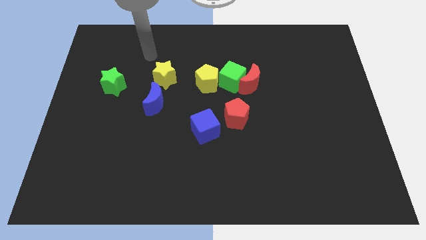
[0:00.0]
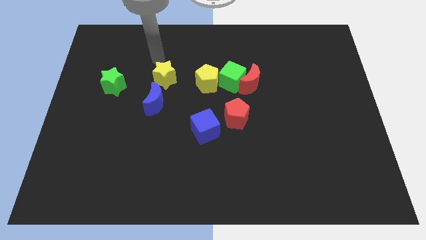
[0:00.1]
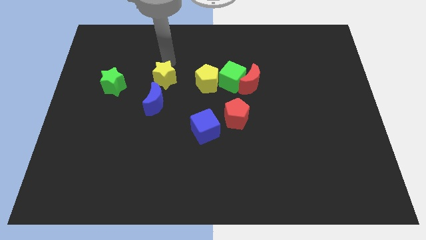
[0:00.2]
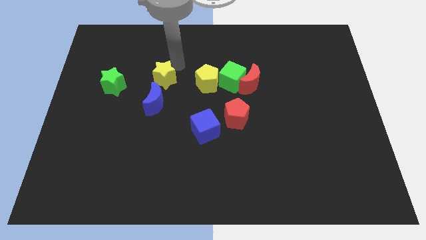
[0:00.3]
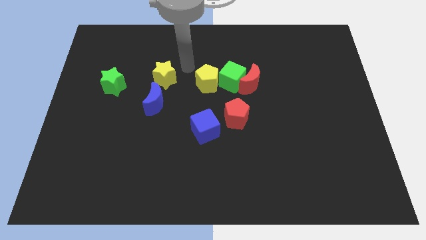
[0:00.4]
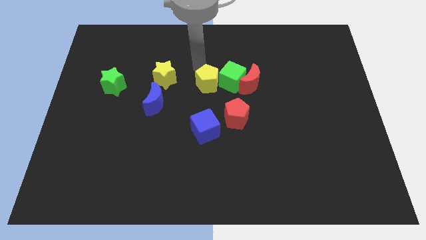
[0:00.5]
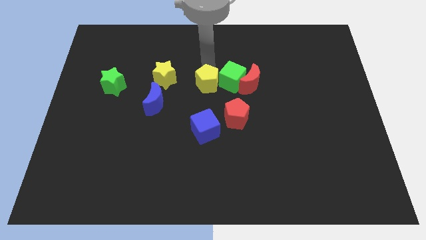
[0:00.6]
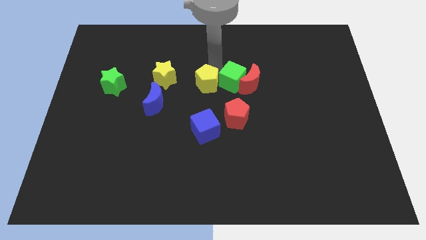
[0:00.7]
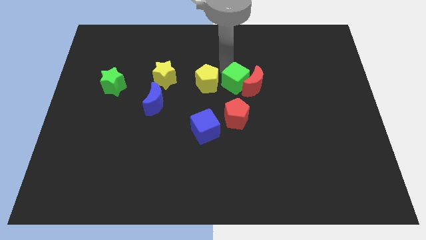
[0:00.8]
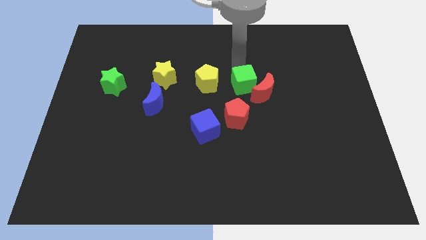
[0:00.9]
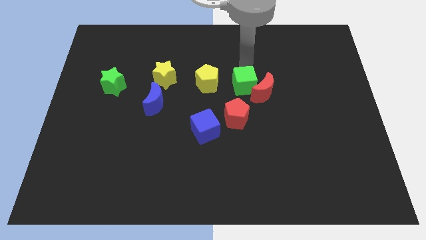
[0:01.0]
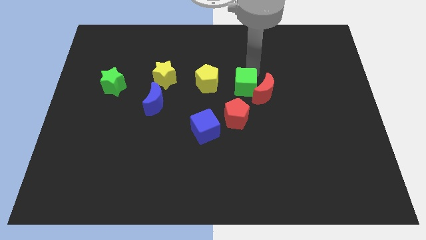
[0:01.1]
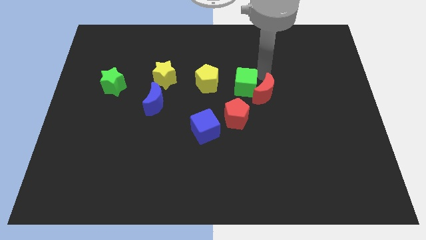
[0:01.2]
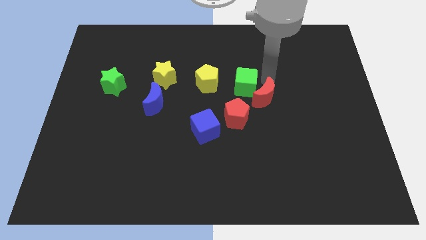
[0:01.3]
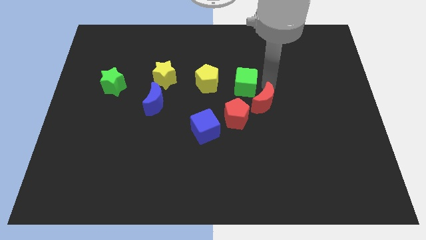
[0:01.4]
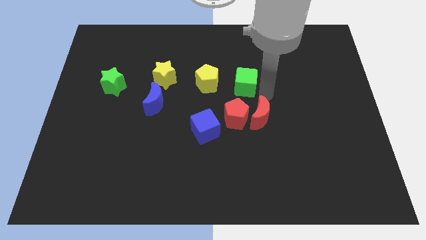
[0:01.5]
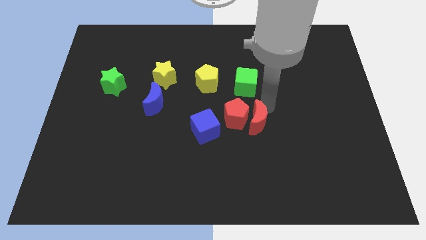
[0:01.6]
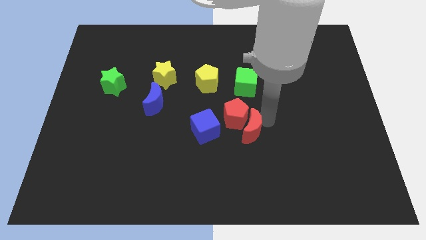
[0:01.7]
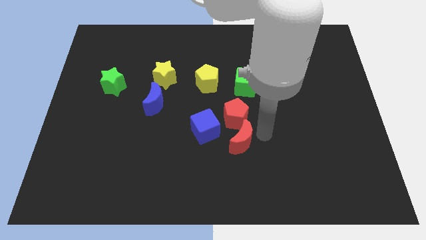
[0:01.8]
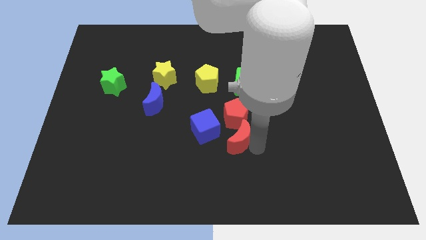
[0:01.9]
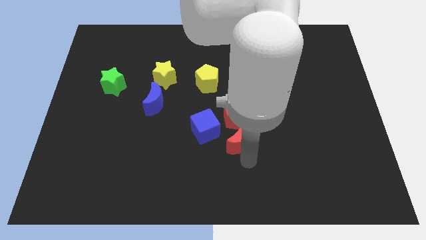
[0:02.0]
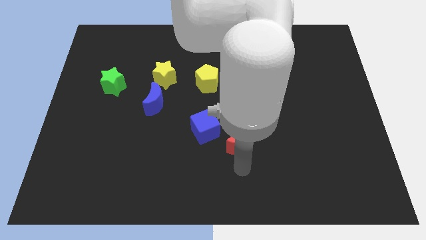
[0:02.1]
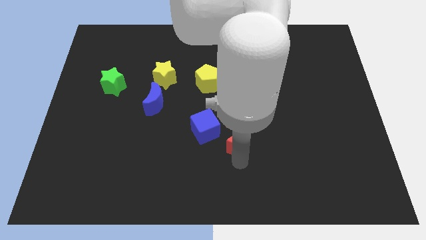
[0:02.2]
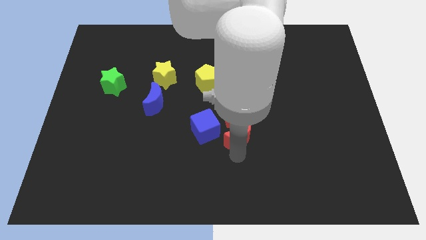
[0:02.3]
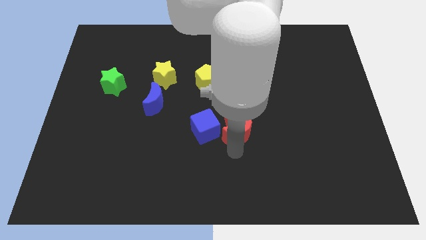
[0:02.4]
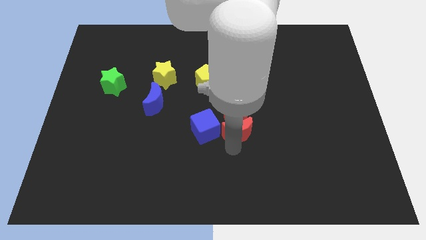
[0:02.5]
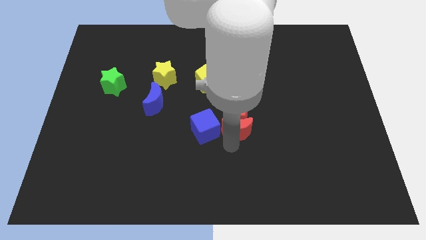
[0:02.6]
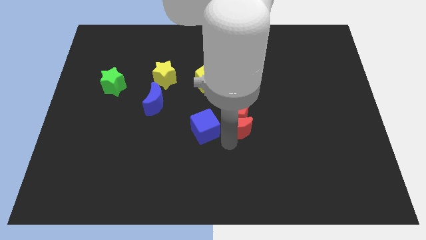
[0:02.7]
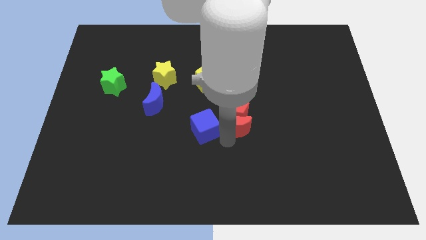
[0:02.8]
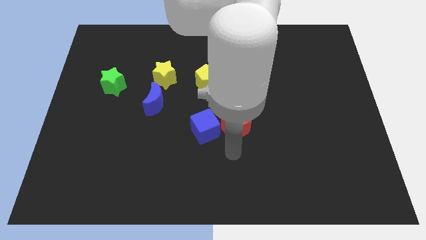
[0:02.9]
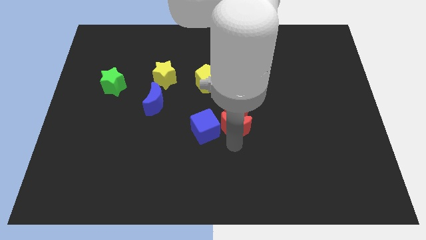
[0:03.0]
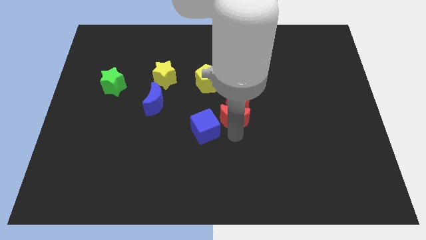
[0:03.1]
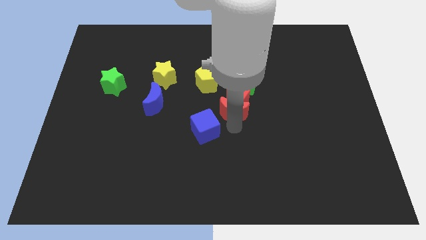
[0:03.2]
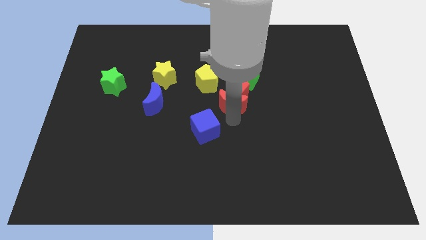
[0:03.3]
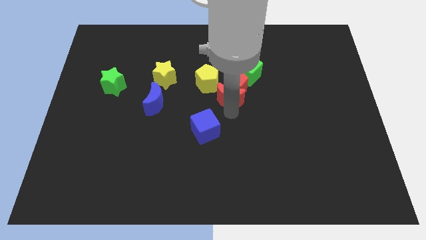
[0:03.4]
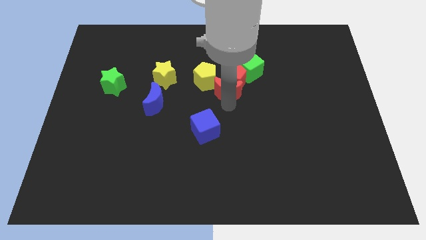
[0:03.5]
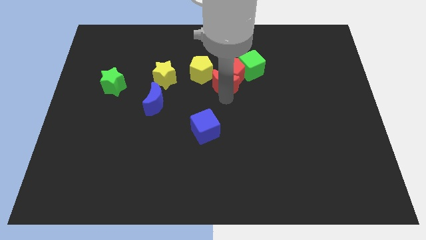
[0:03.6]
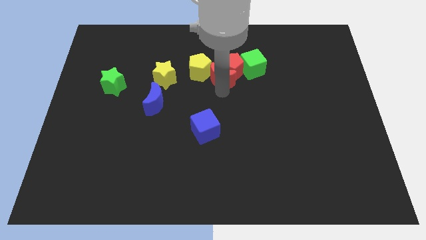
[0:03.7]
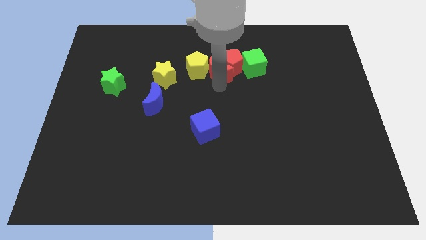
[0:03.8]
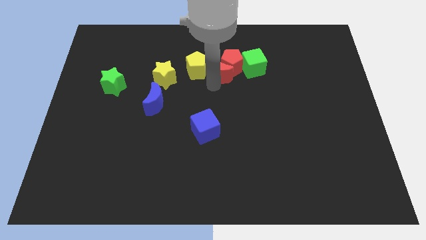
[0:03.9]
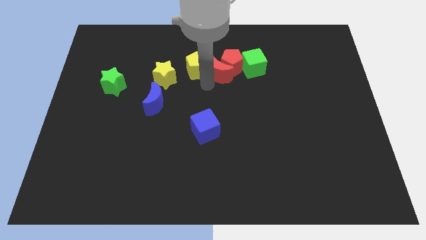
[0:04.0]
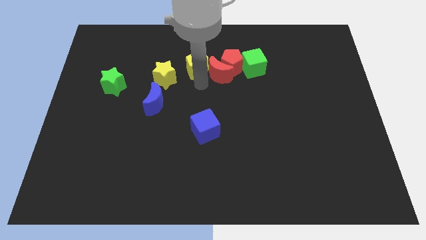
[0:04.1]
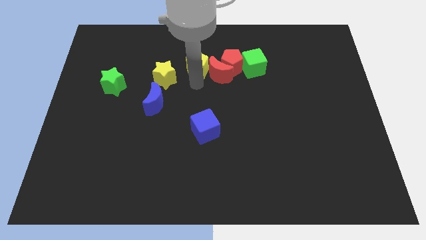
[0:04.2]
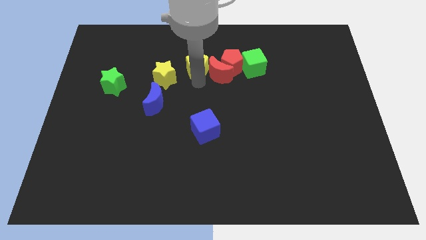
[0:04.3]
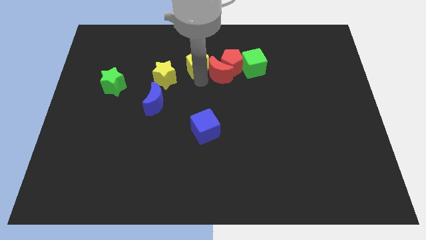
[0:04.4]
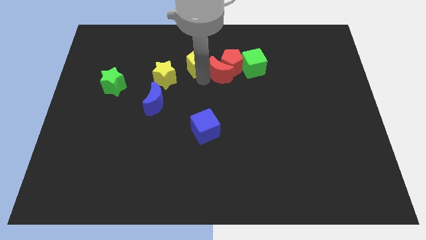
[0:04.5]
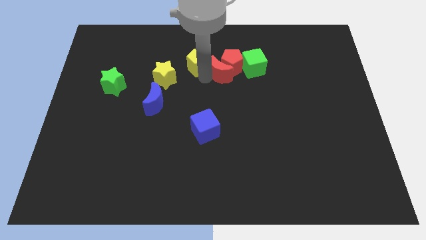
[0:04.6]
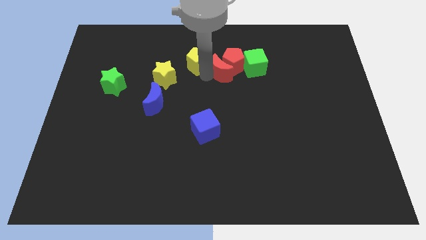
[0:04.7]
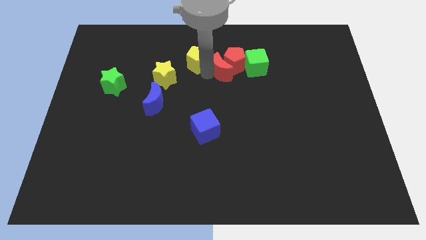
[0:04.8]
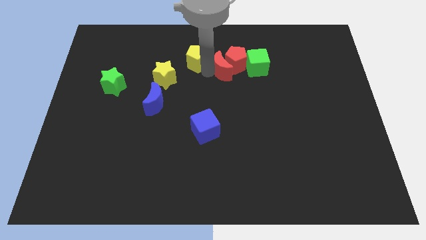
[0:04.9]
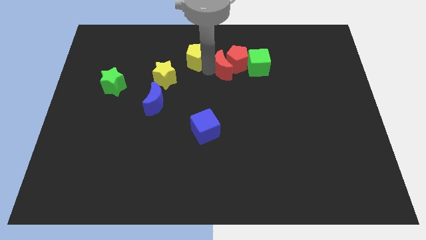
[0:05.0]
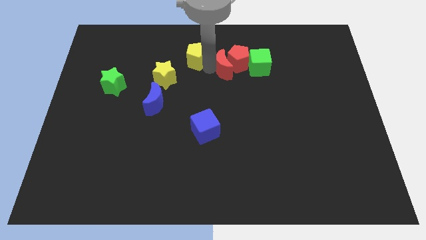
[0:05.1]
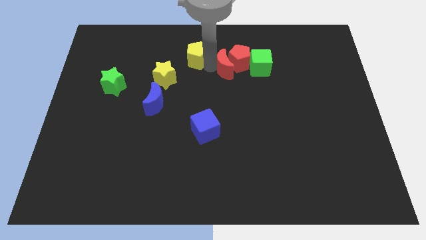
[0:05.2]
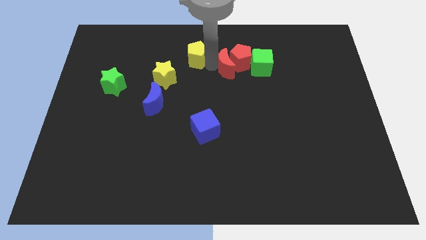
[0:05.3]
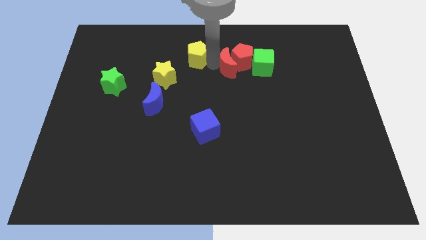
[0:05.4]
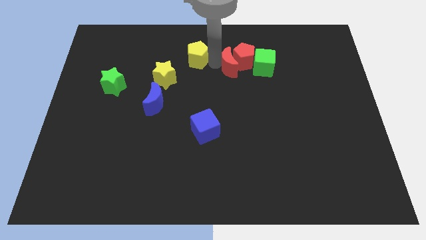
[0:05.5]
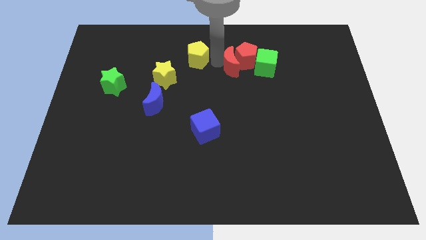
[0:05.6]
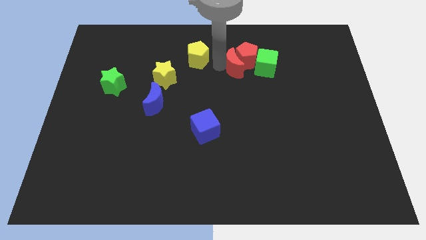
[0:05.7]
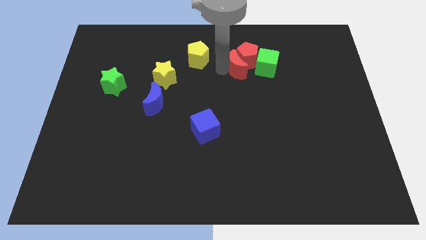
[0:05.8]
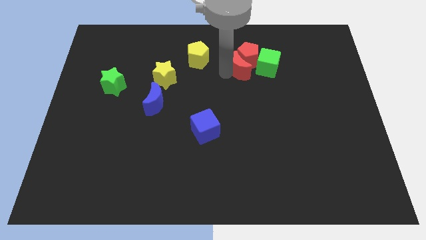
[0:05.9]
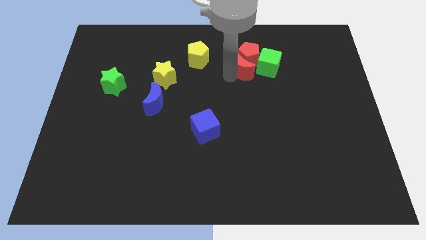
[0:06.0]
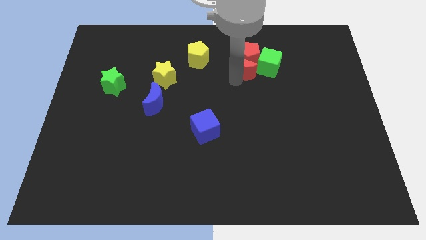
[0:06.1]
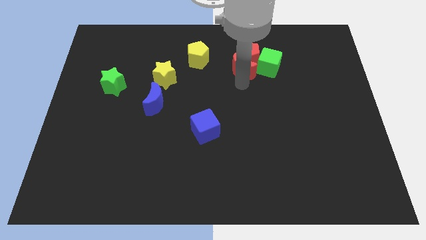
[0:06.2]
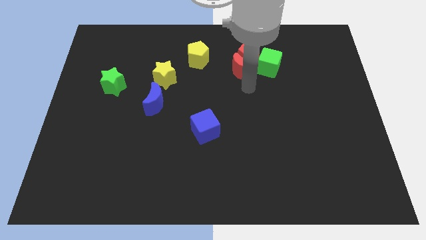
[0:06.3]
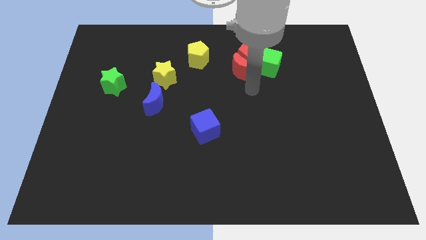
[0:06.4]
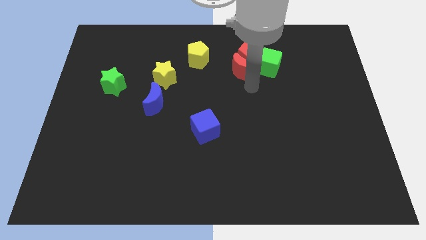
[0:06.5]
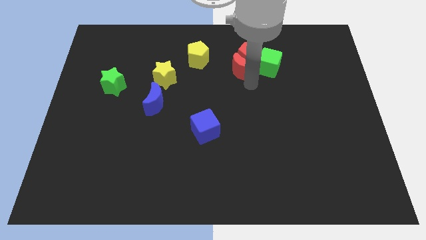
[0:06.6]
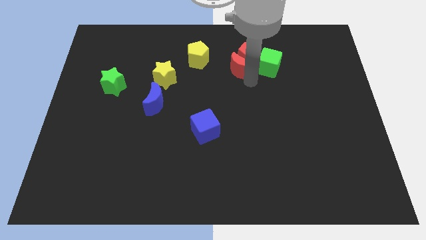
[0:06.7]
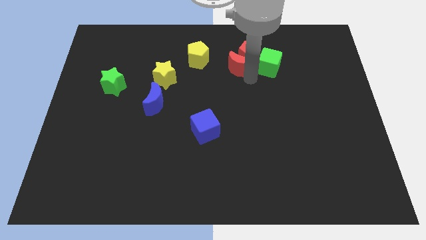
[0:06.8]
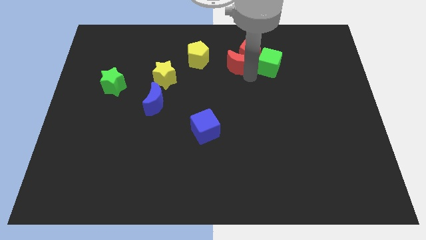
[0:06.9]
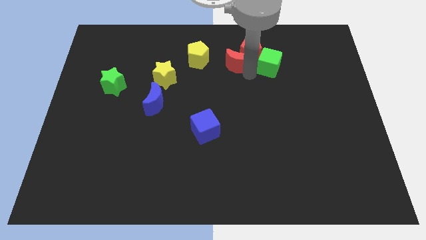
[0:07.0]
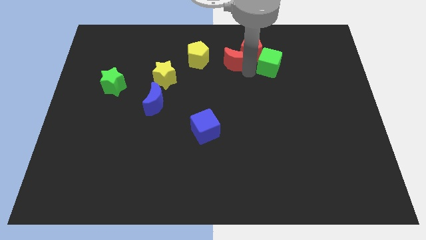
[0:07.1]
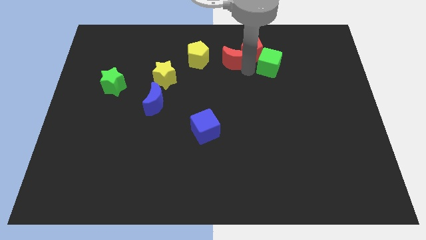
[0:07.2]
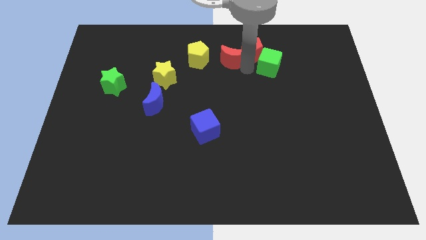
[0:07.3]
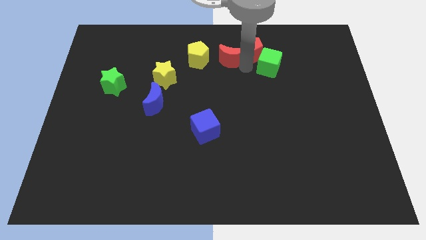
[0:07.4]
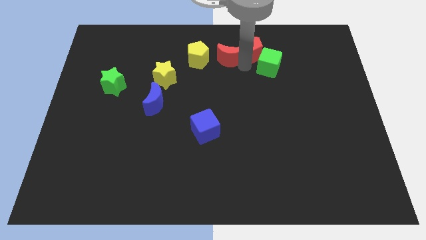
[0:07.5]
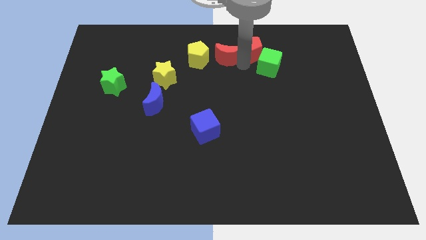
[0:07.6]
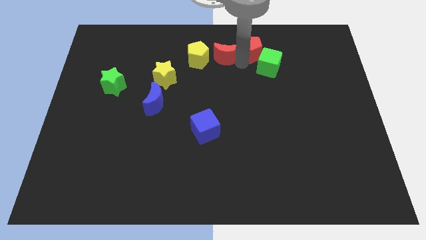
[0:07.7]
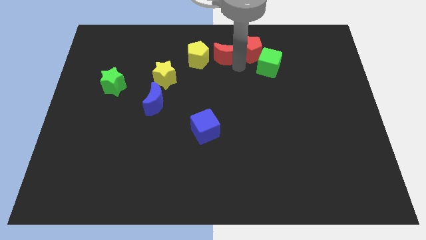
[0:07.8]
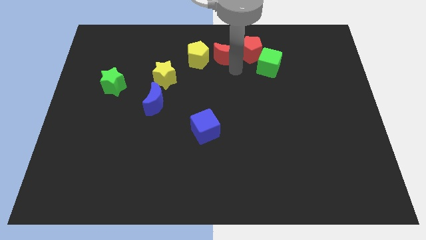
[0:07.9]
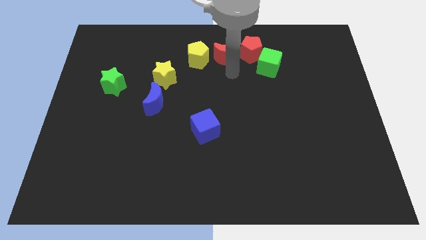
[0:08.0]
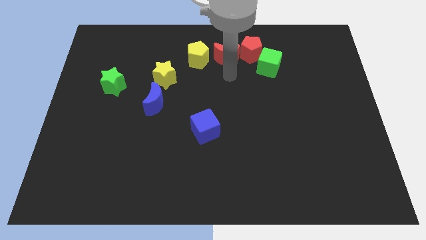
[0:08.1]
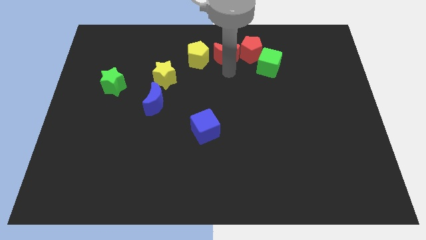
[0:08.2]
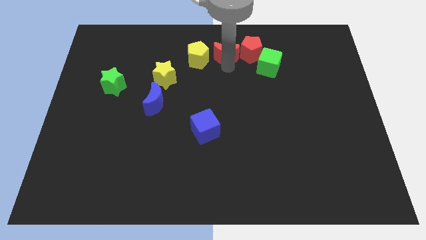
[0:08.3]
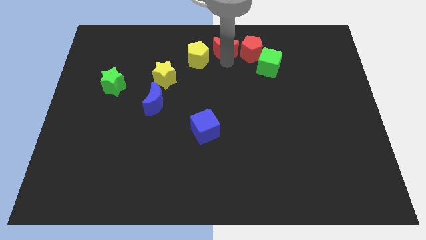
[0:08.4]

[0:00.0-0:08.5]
put the red moon to the top side
